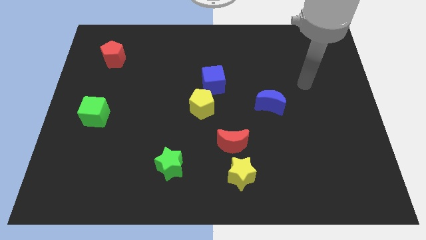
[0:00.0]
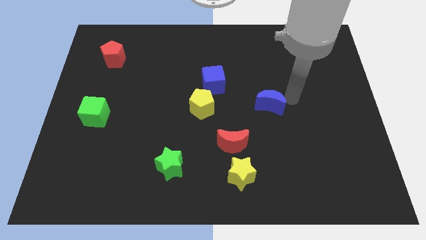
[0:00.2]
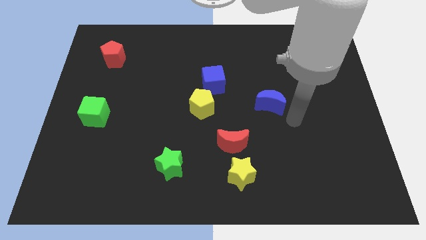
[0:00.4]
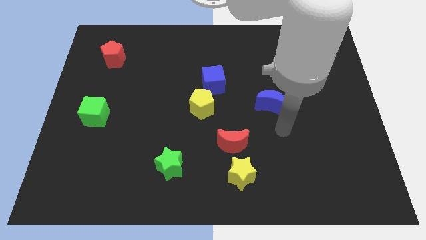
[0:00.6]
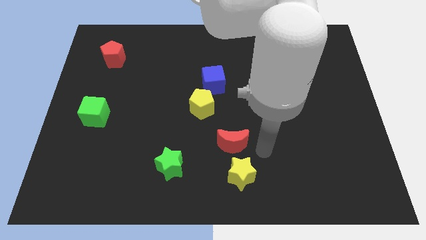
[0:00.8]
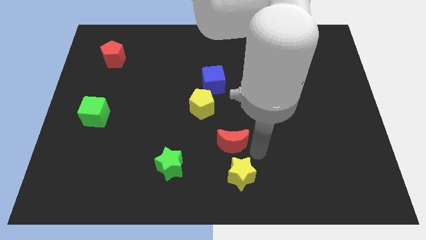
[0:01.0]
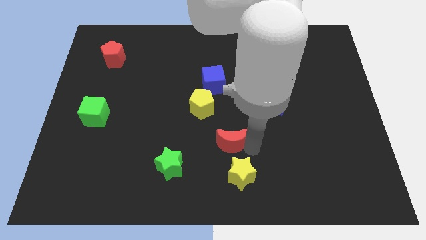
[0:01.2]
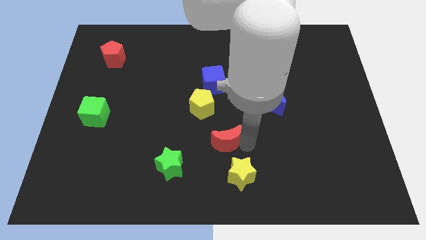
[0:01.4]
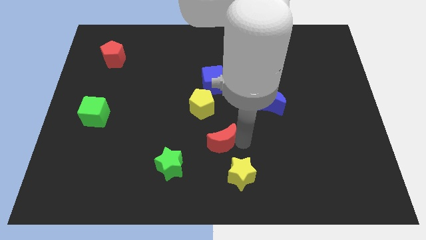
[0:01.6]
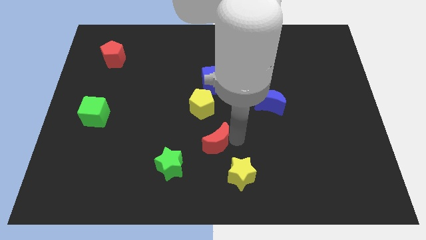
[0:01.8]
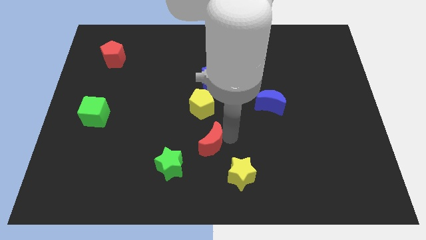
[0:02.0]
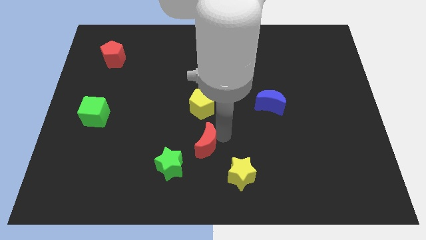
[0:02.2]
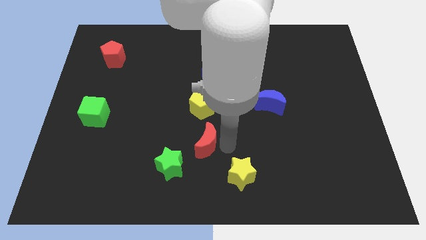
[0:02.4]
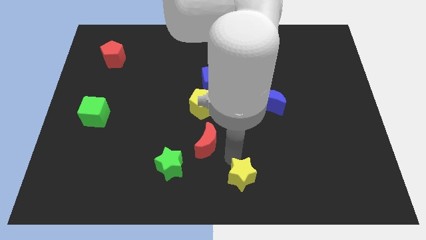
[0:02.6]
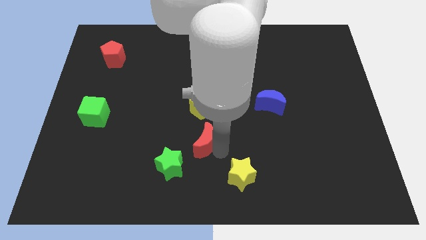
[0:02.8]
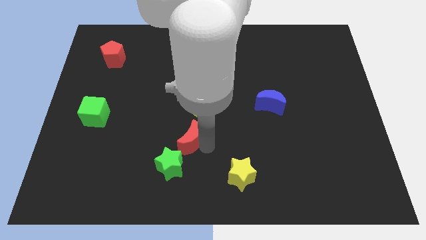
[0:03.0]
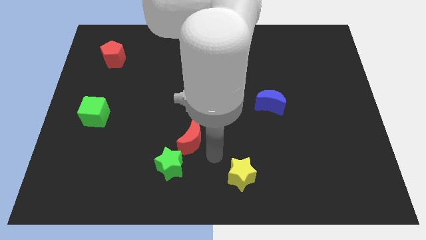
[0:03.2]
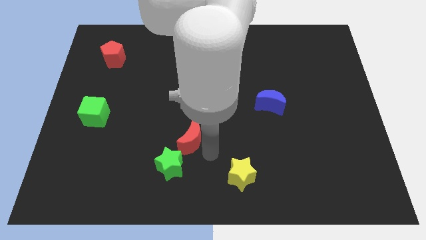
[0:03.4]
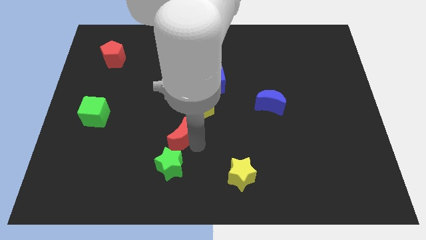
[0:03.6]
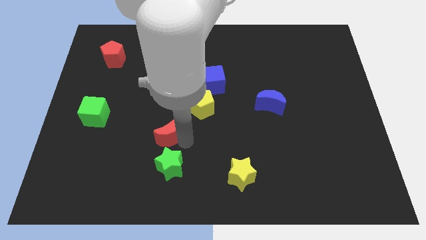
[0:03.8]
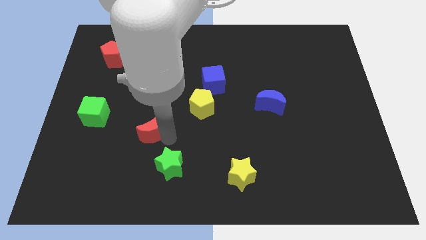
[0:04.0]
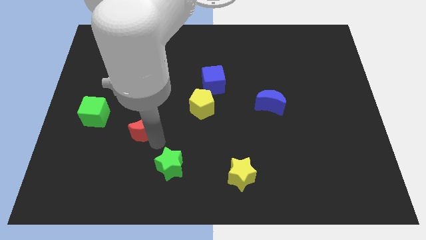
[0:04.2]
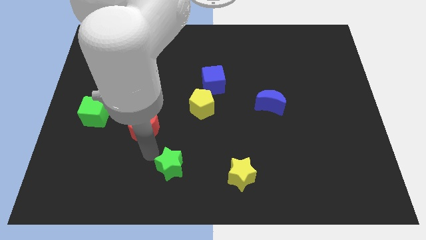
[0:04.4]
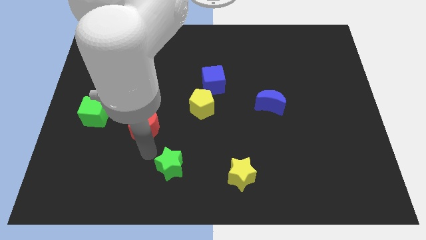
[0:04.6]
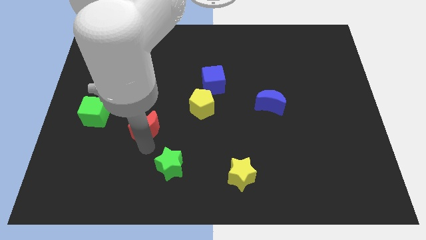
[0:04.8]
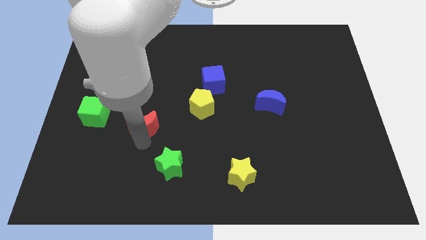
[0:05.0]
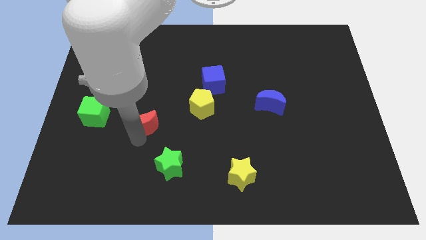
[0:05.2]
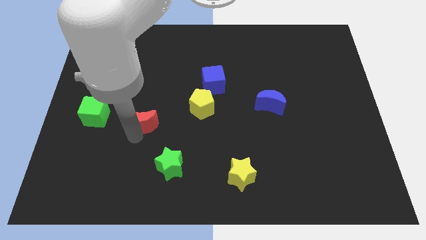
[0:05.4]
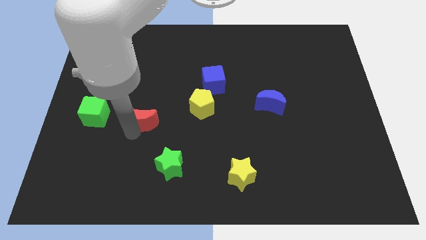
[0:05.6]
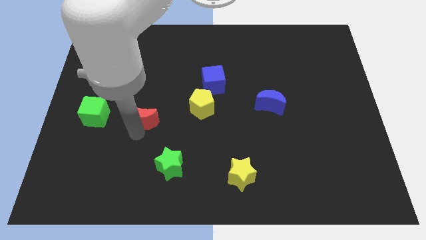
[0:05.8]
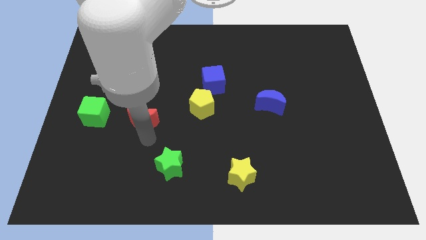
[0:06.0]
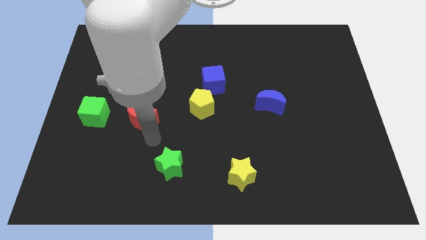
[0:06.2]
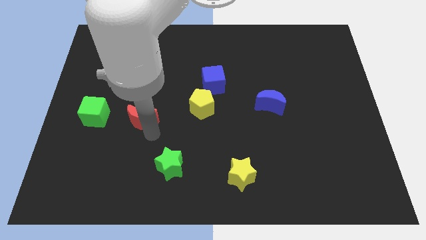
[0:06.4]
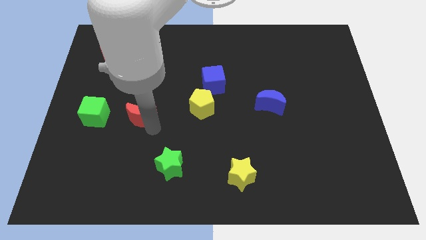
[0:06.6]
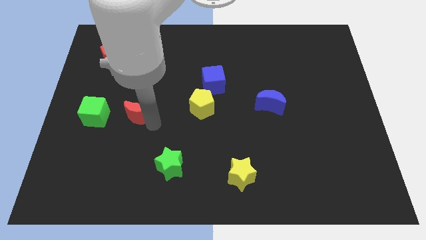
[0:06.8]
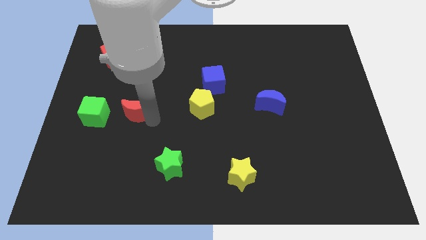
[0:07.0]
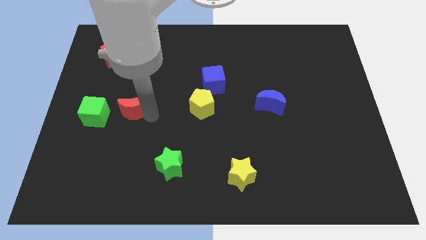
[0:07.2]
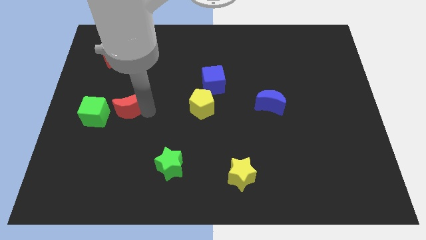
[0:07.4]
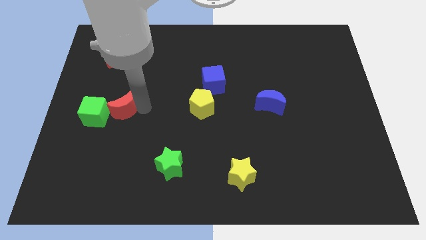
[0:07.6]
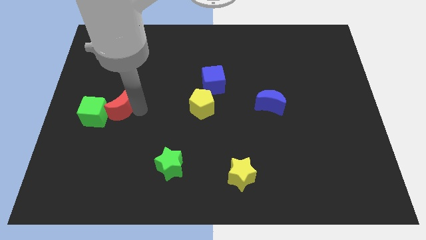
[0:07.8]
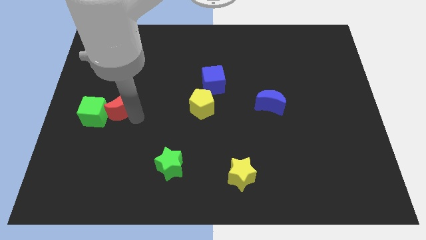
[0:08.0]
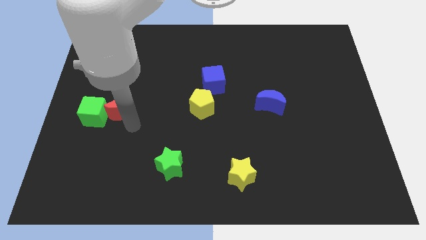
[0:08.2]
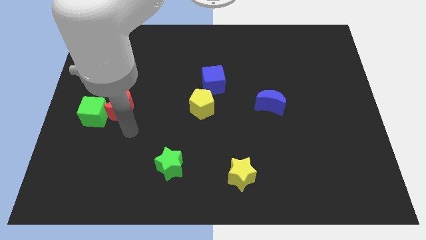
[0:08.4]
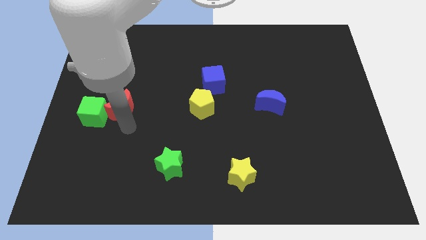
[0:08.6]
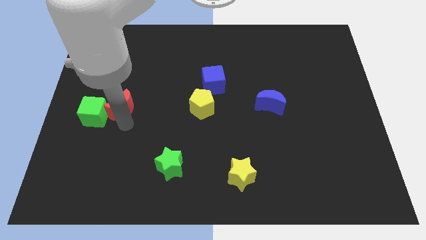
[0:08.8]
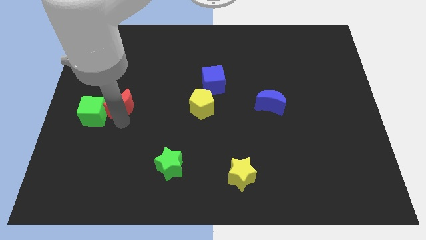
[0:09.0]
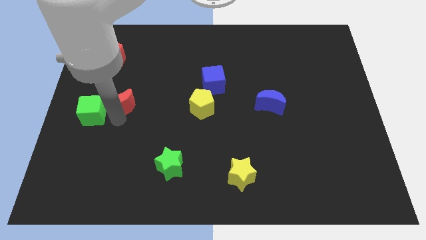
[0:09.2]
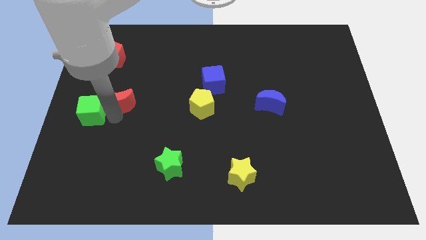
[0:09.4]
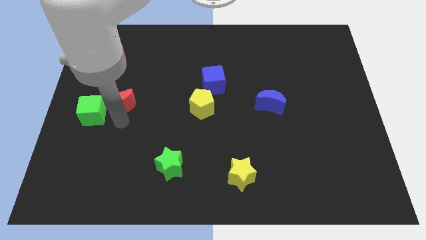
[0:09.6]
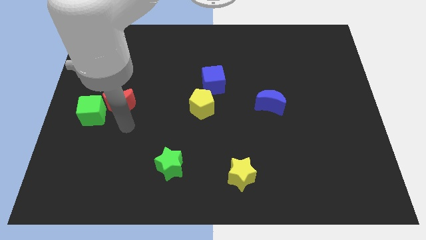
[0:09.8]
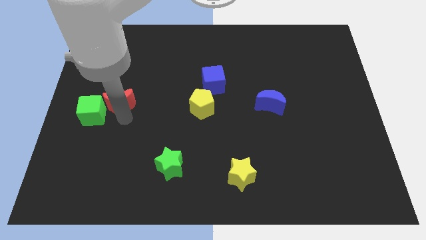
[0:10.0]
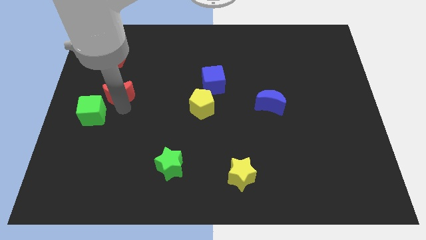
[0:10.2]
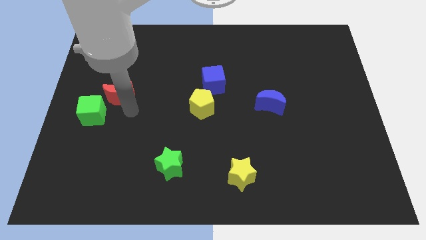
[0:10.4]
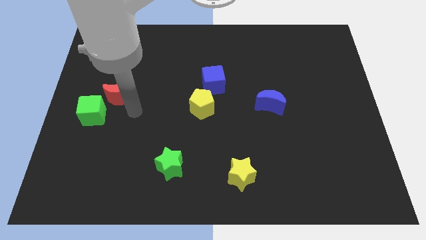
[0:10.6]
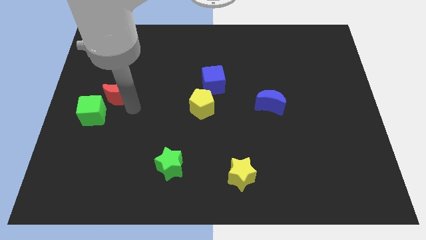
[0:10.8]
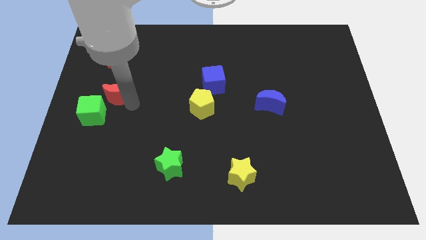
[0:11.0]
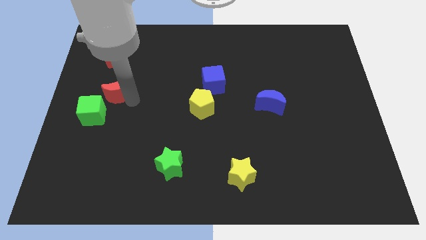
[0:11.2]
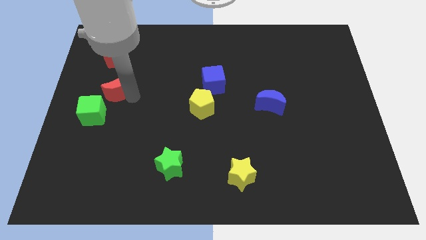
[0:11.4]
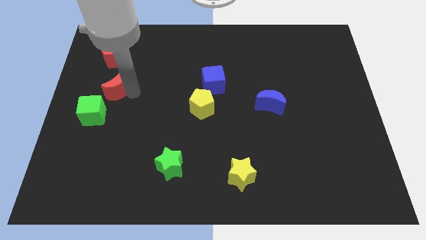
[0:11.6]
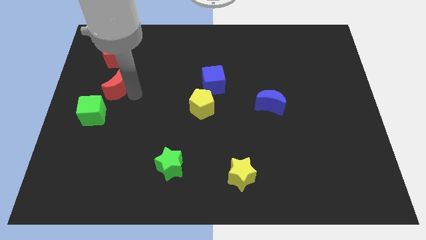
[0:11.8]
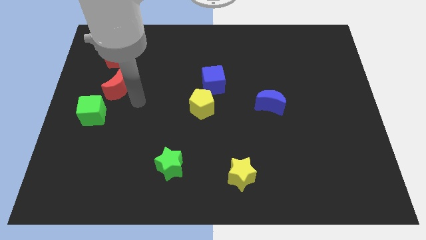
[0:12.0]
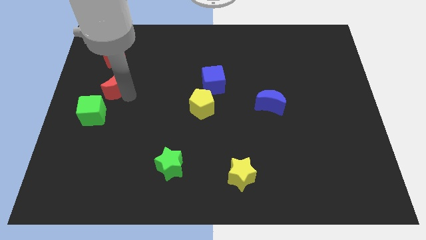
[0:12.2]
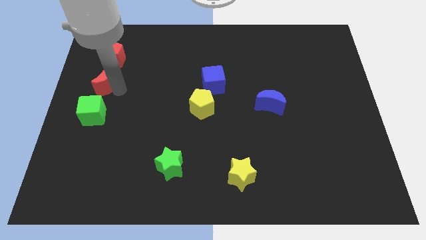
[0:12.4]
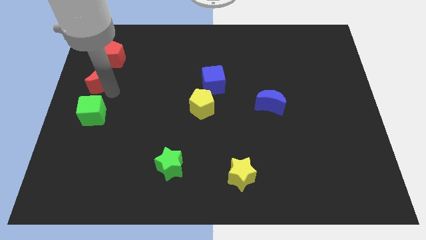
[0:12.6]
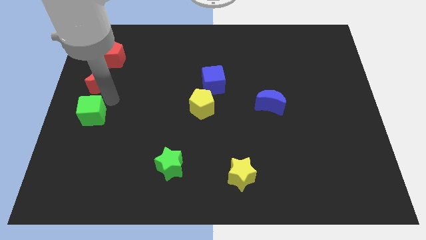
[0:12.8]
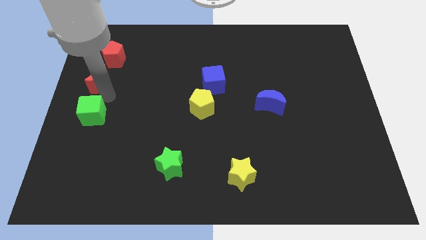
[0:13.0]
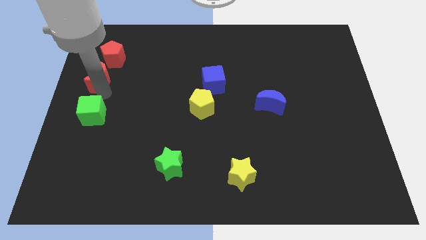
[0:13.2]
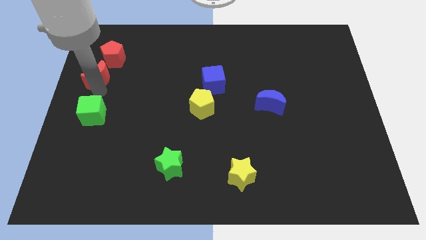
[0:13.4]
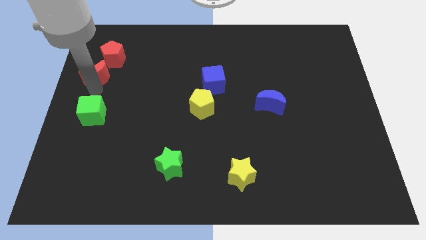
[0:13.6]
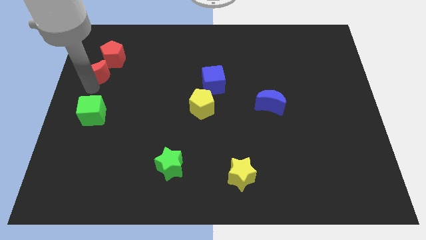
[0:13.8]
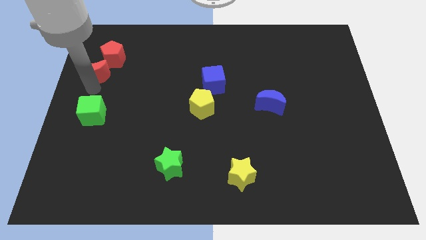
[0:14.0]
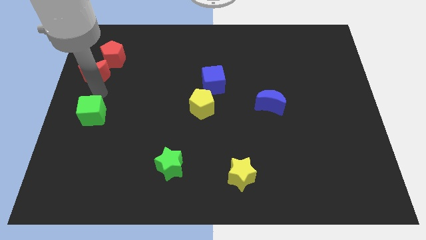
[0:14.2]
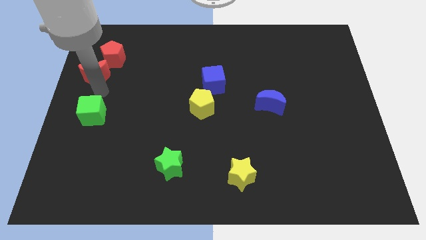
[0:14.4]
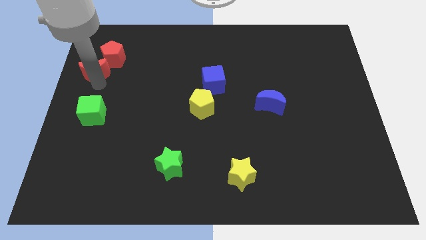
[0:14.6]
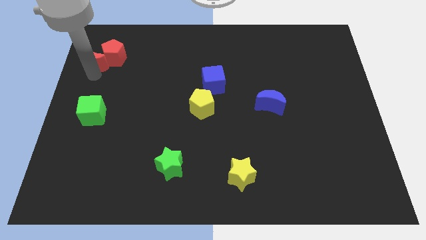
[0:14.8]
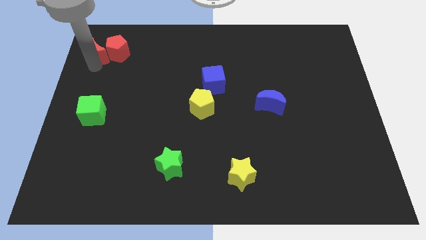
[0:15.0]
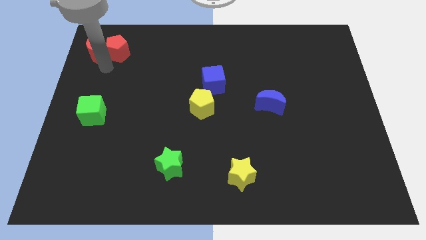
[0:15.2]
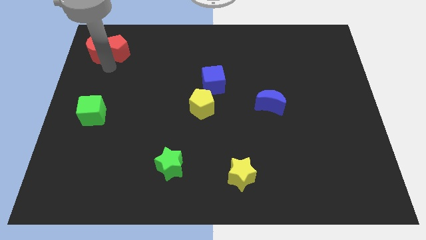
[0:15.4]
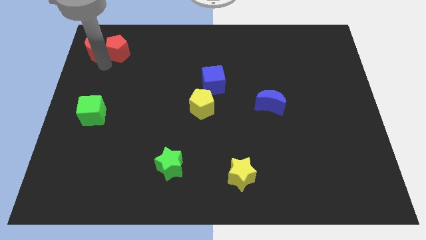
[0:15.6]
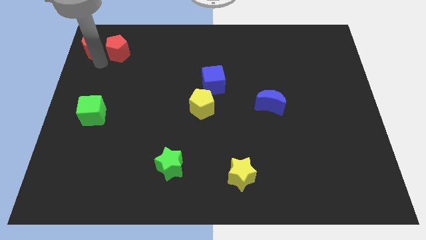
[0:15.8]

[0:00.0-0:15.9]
put the red moon to the top left corner
